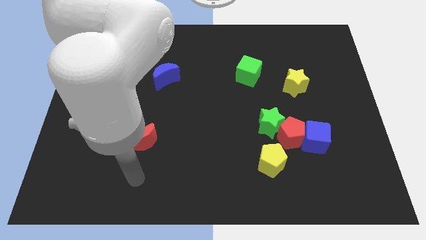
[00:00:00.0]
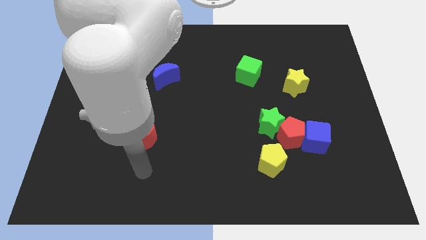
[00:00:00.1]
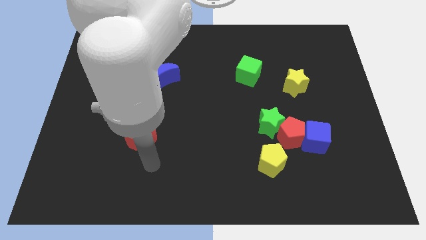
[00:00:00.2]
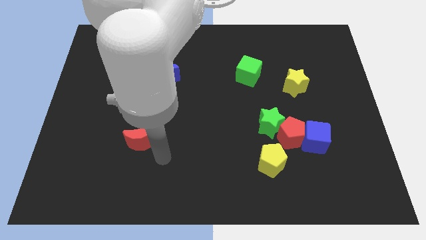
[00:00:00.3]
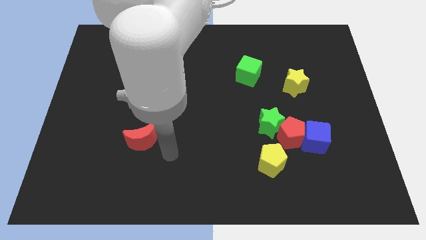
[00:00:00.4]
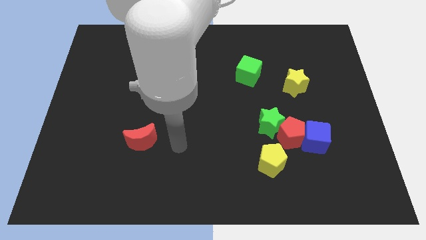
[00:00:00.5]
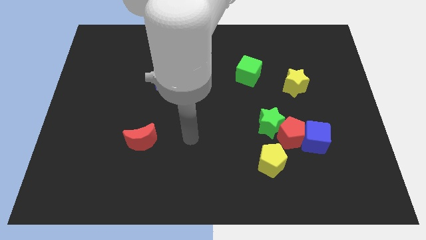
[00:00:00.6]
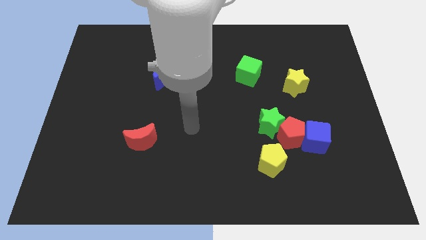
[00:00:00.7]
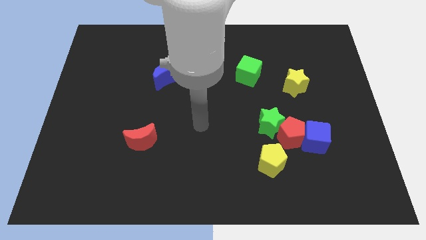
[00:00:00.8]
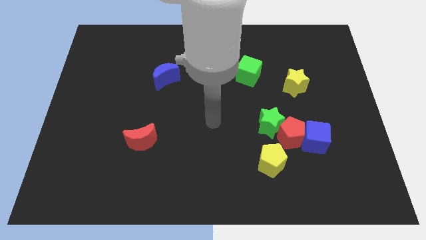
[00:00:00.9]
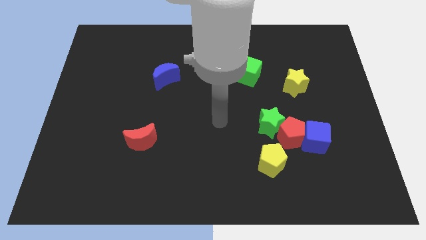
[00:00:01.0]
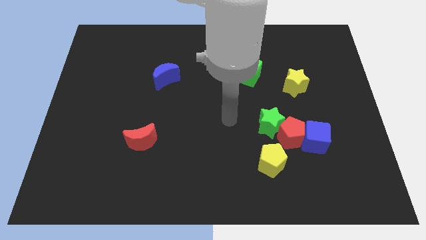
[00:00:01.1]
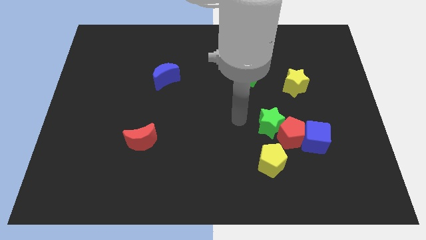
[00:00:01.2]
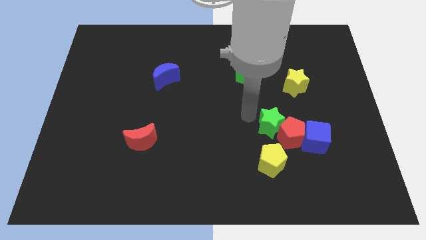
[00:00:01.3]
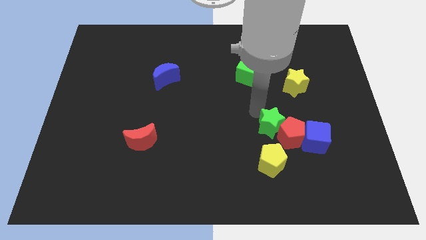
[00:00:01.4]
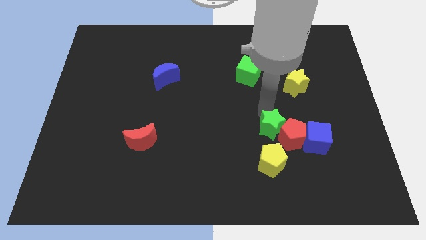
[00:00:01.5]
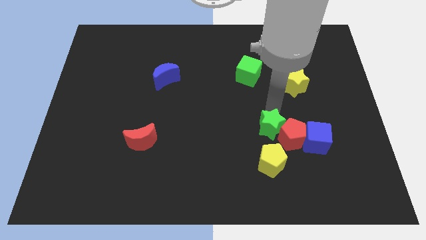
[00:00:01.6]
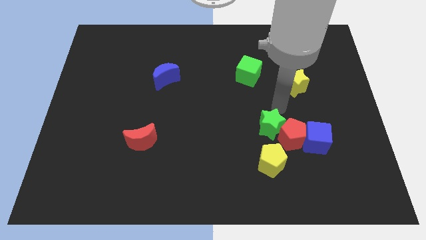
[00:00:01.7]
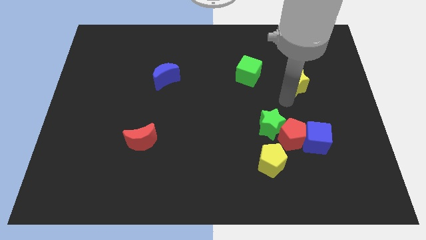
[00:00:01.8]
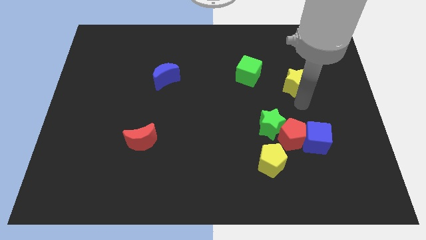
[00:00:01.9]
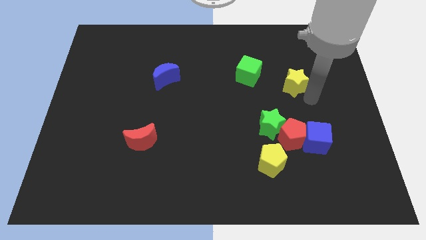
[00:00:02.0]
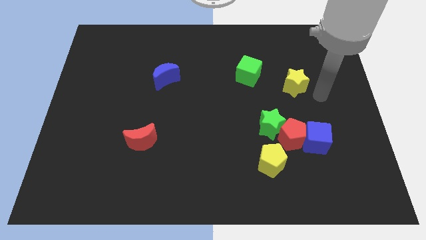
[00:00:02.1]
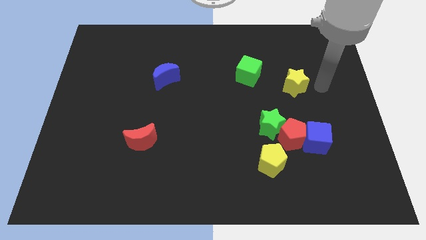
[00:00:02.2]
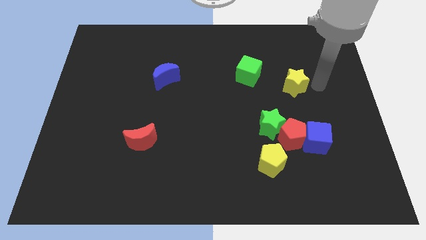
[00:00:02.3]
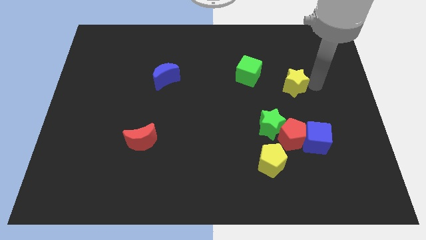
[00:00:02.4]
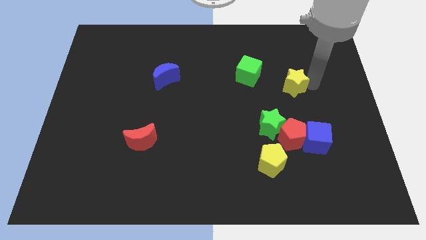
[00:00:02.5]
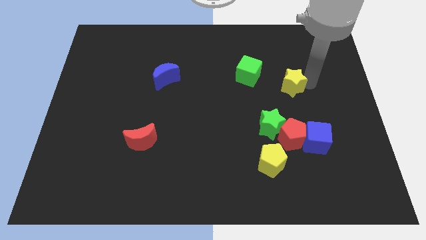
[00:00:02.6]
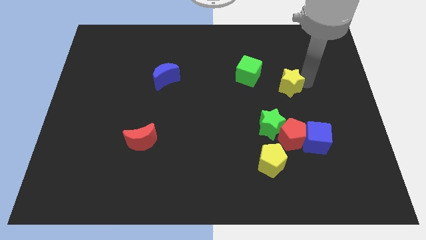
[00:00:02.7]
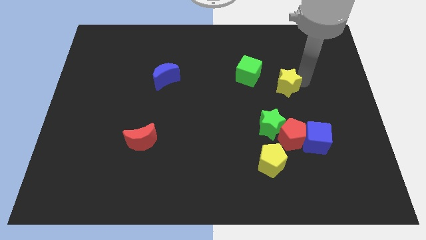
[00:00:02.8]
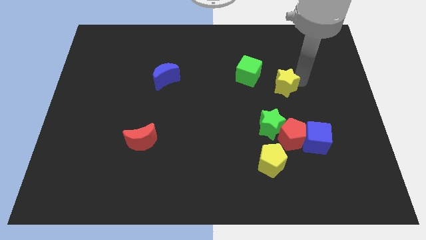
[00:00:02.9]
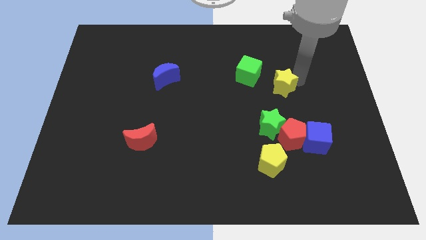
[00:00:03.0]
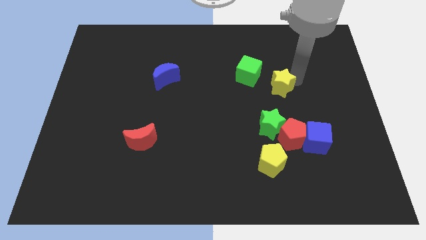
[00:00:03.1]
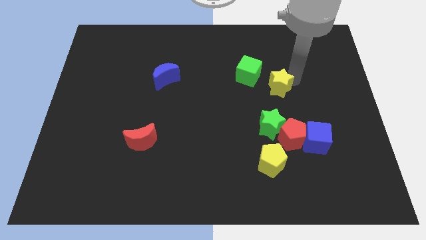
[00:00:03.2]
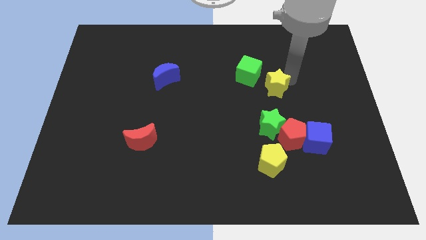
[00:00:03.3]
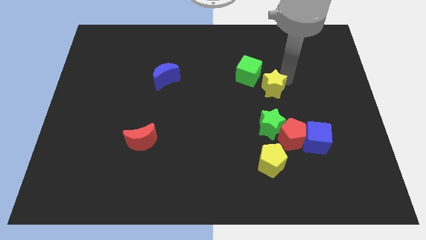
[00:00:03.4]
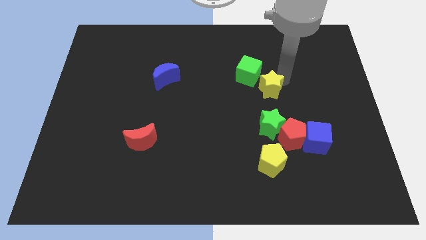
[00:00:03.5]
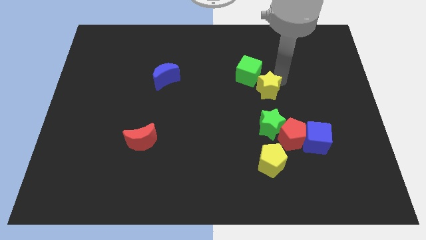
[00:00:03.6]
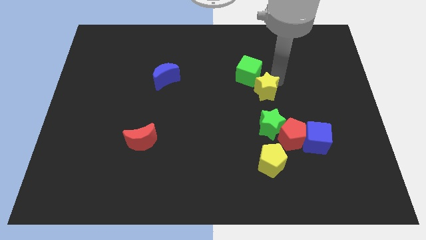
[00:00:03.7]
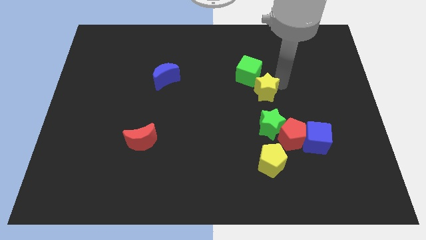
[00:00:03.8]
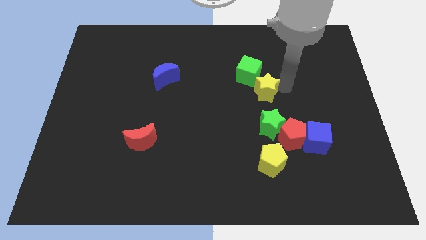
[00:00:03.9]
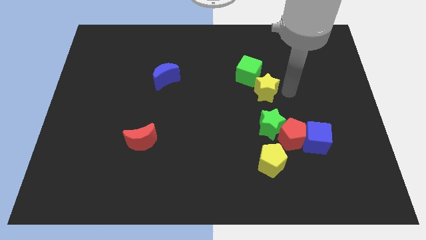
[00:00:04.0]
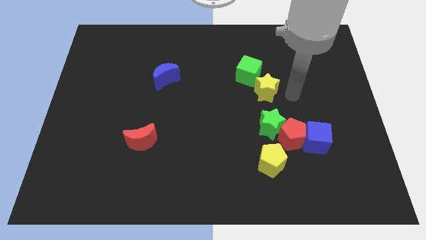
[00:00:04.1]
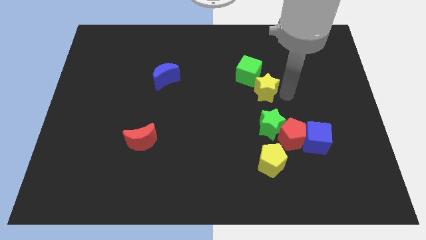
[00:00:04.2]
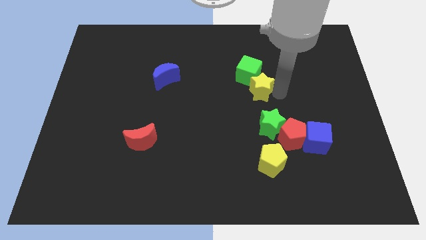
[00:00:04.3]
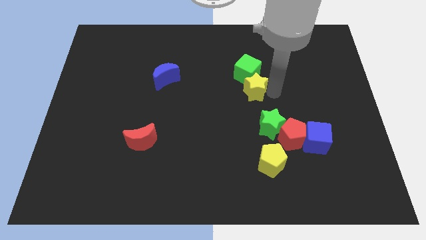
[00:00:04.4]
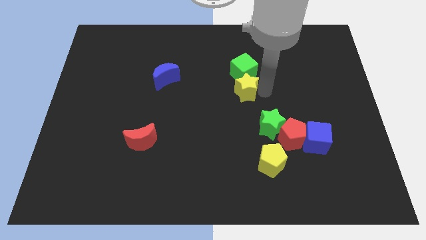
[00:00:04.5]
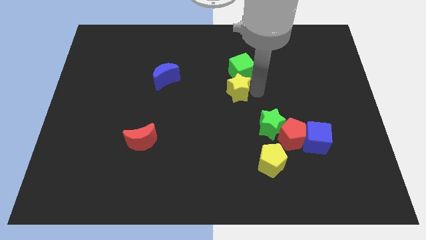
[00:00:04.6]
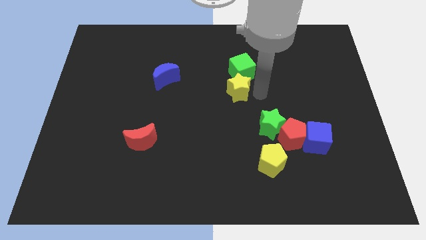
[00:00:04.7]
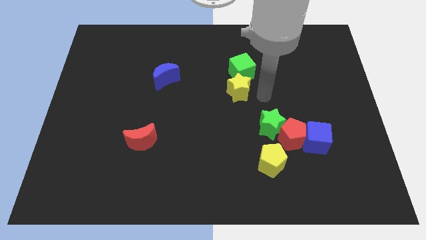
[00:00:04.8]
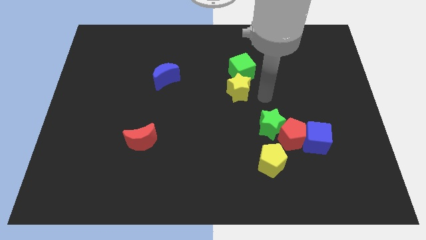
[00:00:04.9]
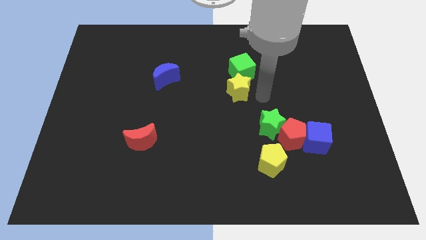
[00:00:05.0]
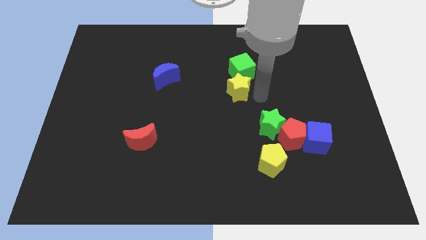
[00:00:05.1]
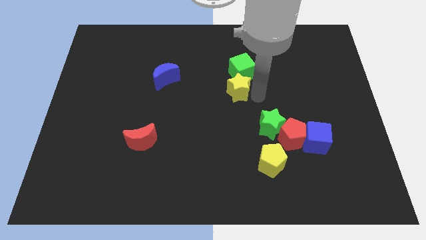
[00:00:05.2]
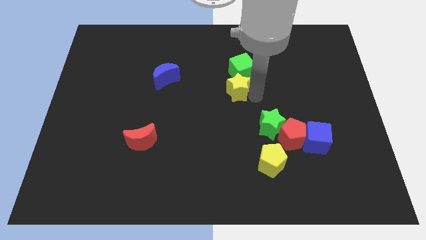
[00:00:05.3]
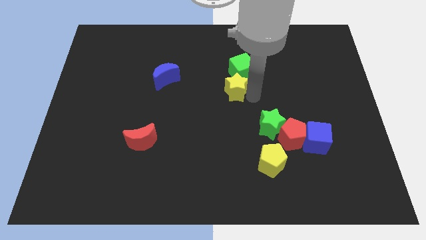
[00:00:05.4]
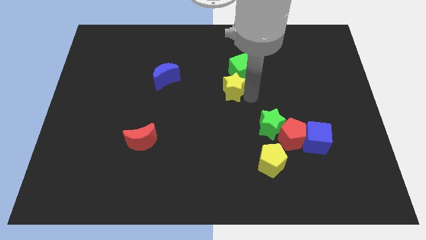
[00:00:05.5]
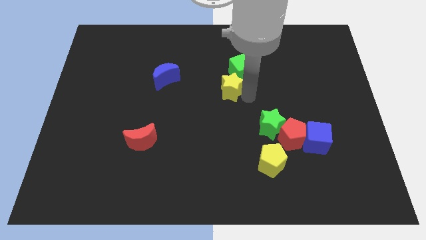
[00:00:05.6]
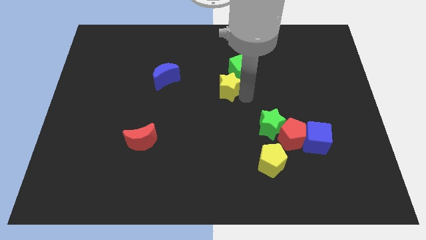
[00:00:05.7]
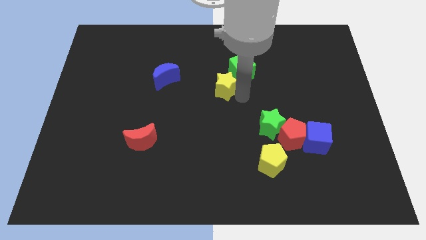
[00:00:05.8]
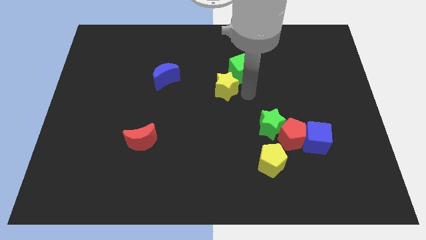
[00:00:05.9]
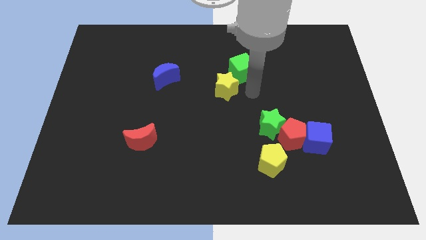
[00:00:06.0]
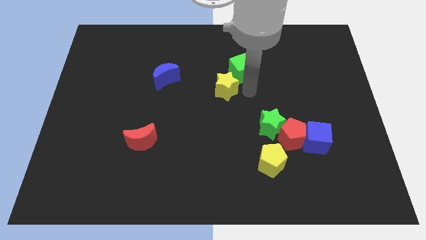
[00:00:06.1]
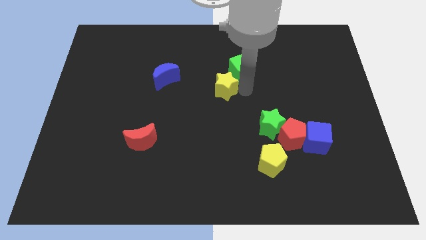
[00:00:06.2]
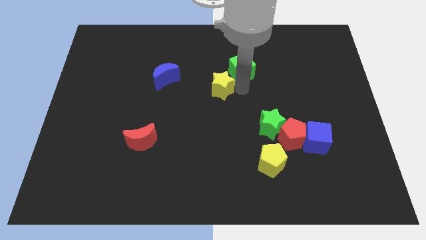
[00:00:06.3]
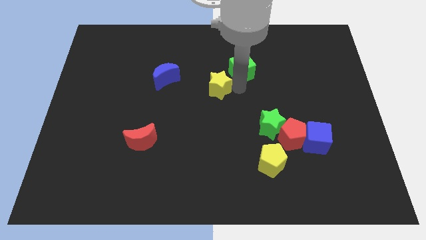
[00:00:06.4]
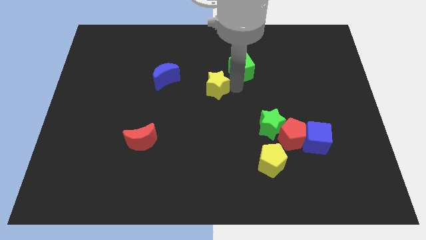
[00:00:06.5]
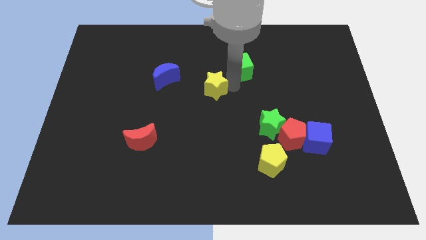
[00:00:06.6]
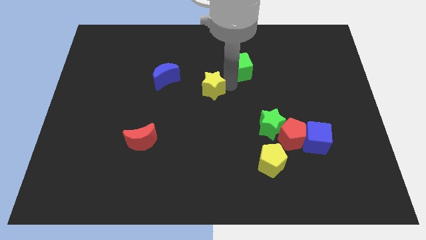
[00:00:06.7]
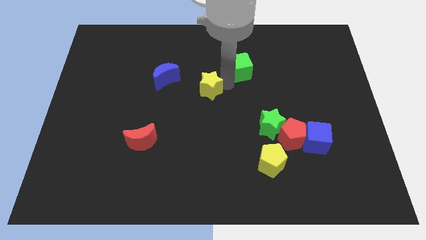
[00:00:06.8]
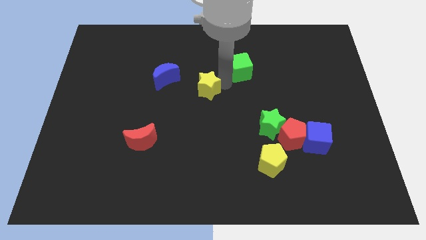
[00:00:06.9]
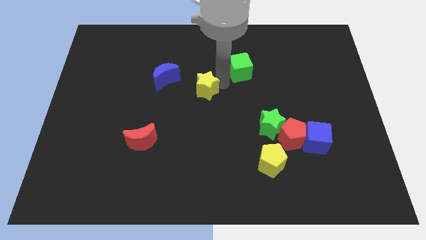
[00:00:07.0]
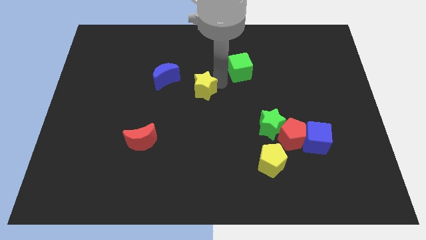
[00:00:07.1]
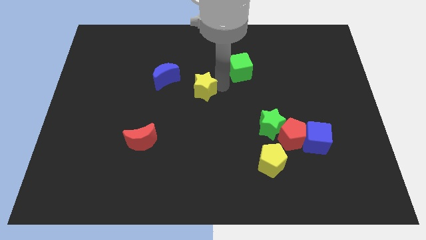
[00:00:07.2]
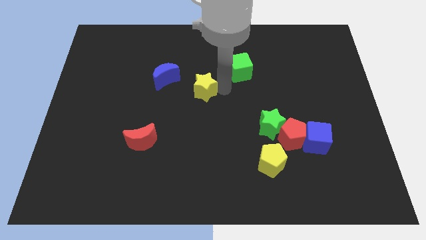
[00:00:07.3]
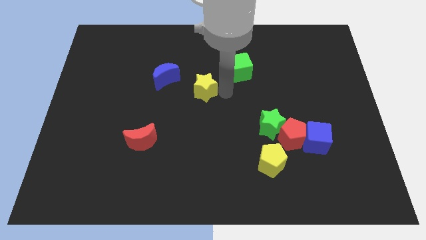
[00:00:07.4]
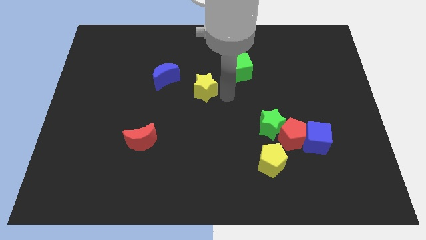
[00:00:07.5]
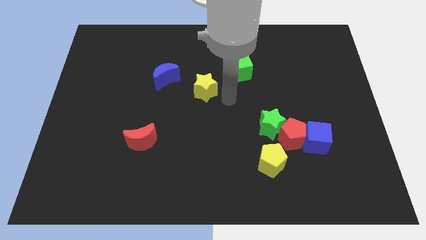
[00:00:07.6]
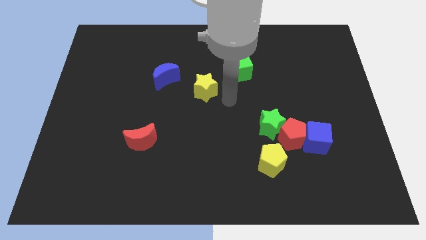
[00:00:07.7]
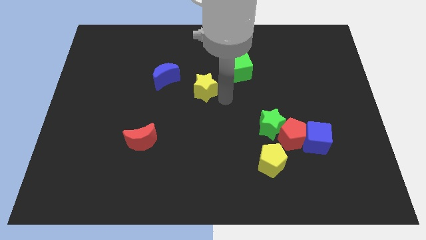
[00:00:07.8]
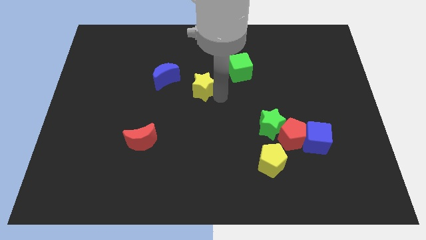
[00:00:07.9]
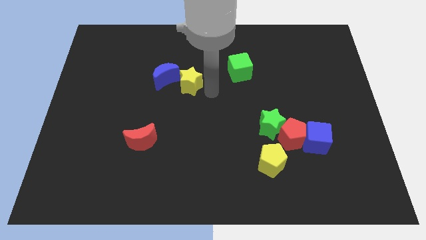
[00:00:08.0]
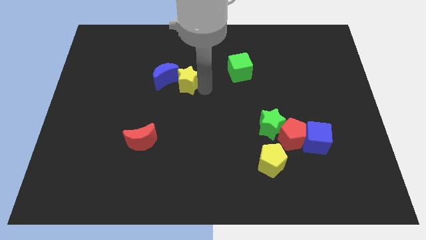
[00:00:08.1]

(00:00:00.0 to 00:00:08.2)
slide the yellow star to the blue moon
